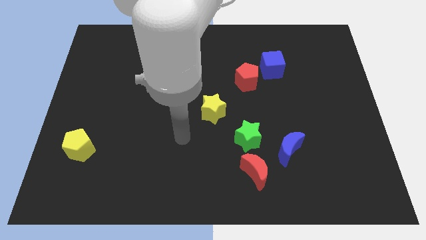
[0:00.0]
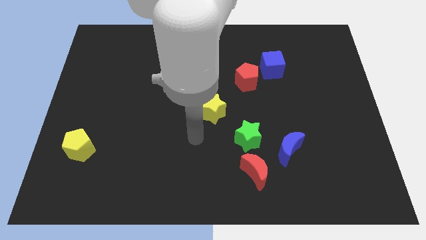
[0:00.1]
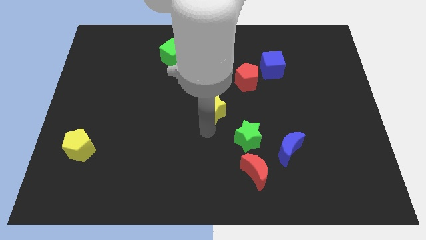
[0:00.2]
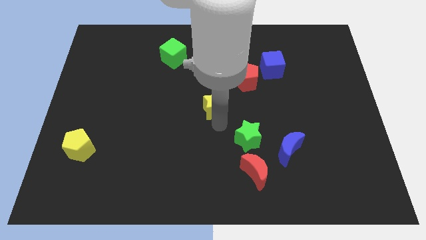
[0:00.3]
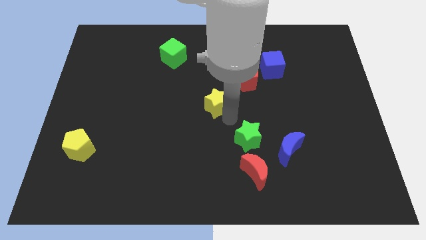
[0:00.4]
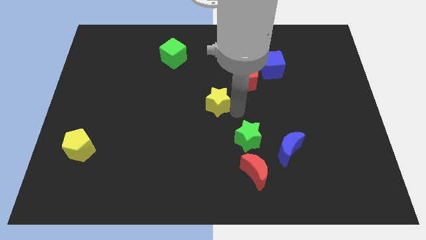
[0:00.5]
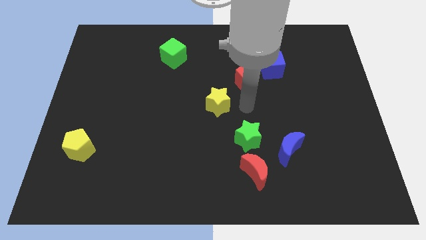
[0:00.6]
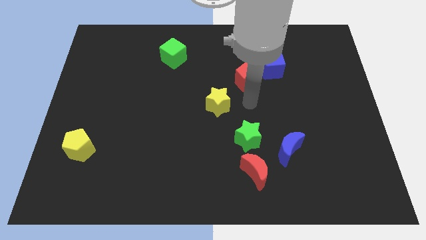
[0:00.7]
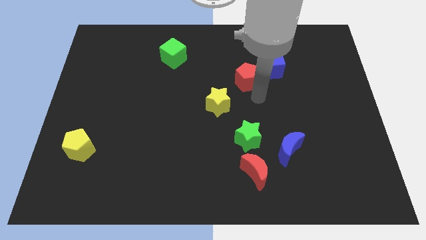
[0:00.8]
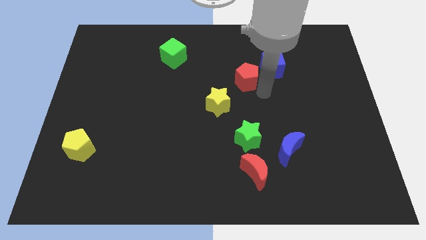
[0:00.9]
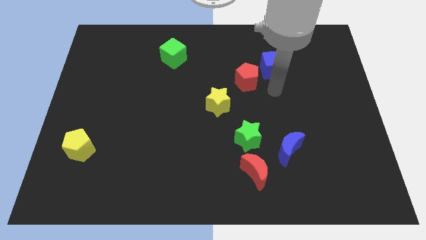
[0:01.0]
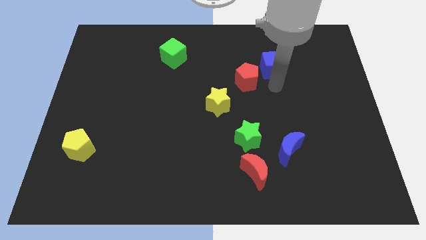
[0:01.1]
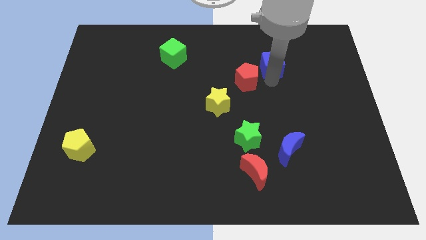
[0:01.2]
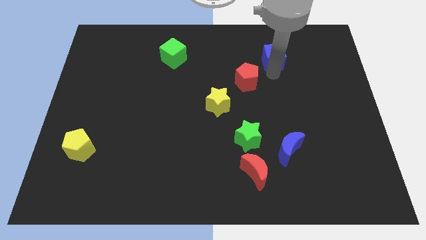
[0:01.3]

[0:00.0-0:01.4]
pull the red pentagon apart from the blue cube

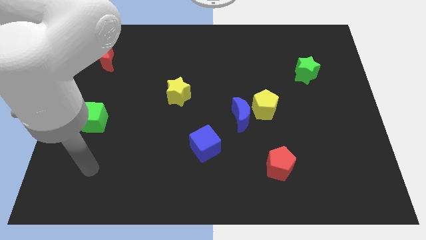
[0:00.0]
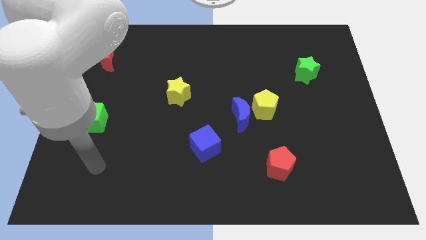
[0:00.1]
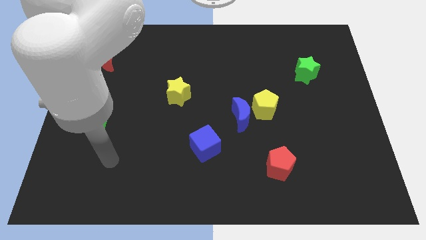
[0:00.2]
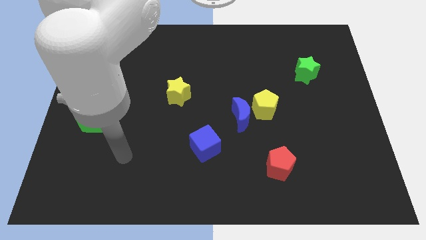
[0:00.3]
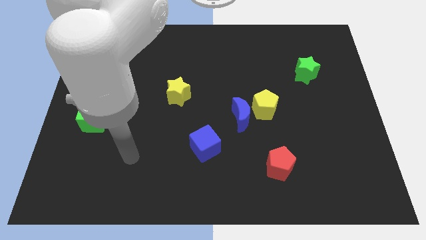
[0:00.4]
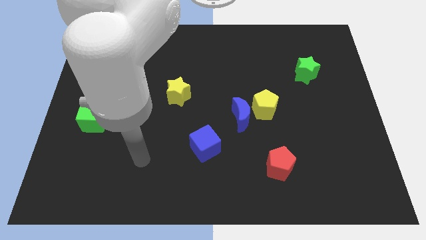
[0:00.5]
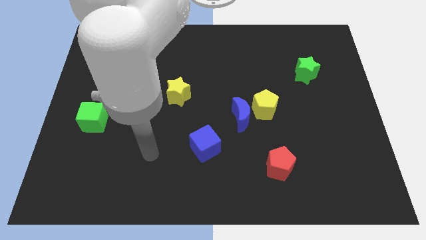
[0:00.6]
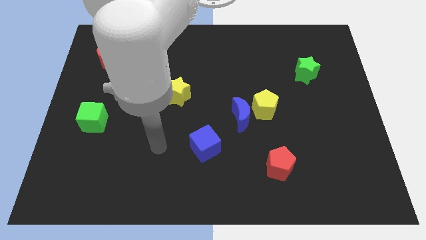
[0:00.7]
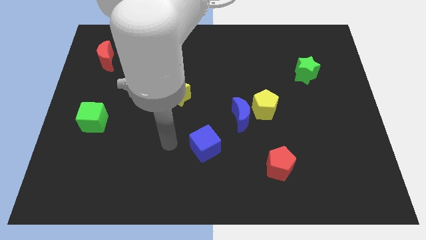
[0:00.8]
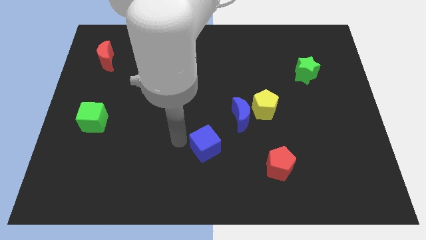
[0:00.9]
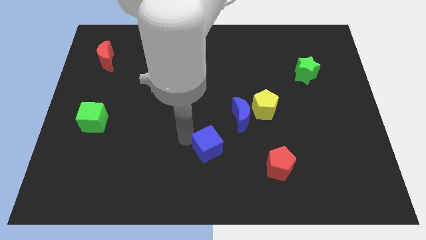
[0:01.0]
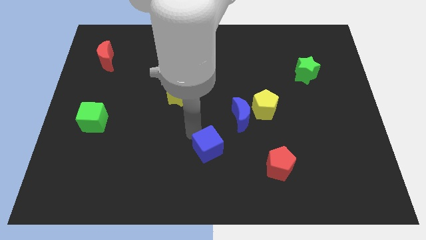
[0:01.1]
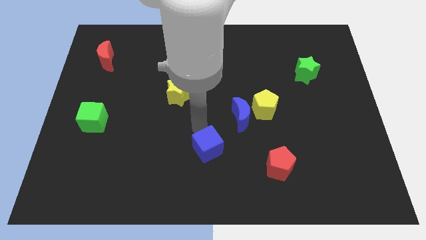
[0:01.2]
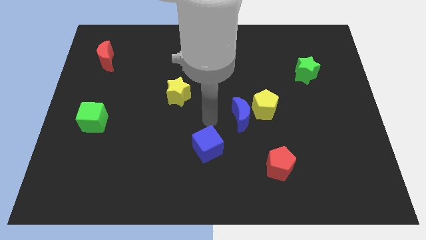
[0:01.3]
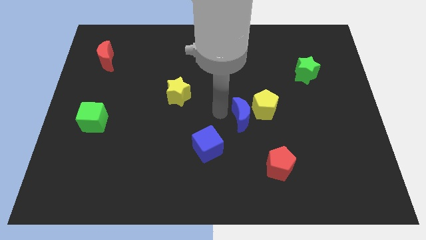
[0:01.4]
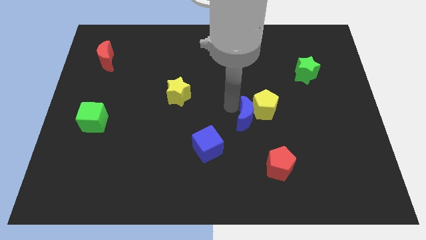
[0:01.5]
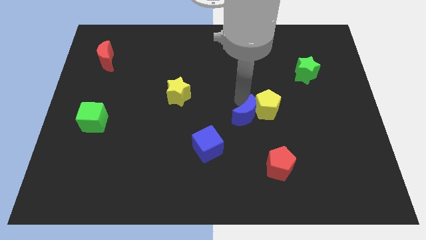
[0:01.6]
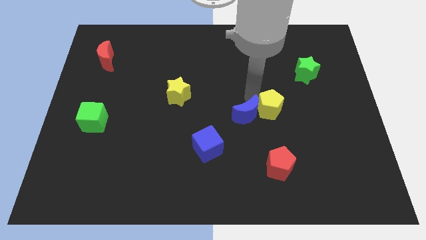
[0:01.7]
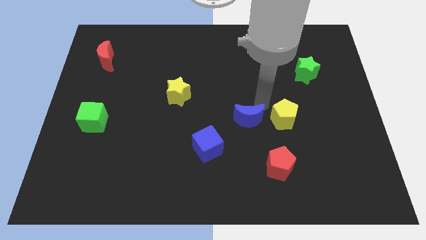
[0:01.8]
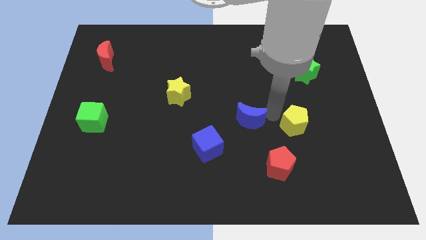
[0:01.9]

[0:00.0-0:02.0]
pull the blue moon apart from the yellow pentagon

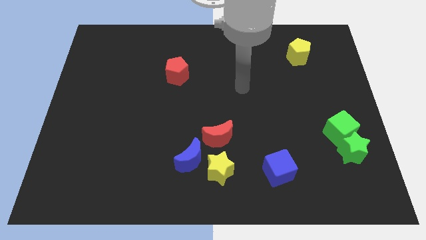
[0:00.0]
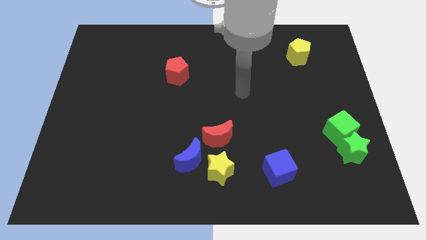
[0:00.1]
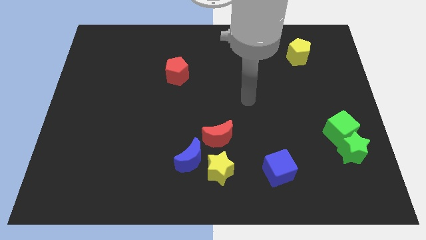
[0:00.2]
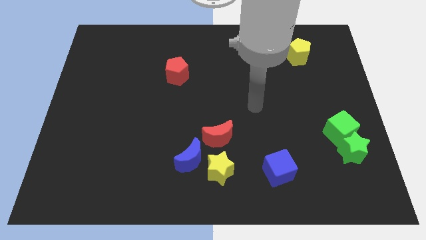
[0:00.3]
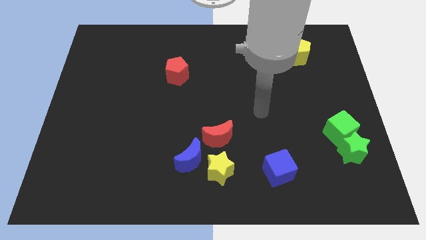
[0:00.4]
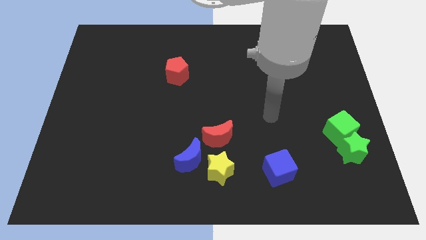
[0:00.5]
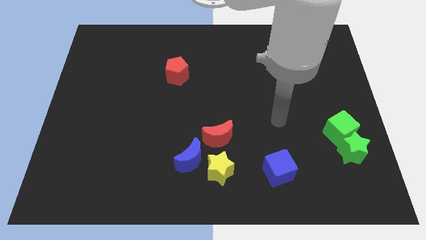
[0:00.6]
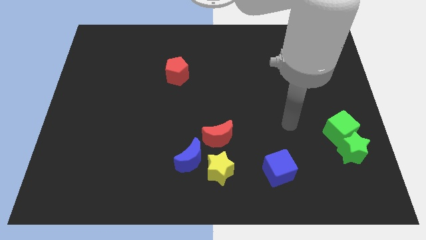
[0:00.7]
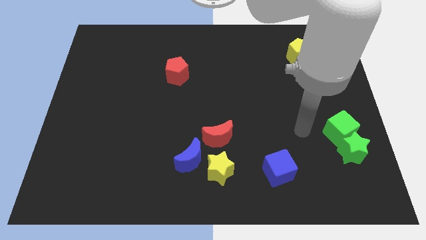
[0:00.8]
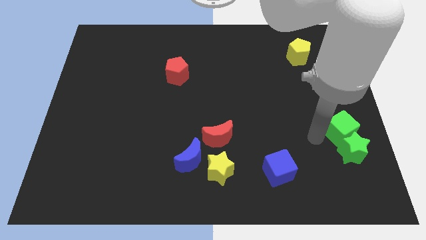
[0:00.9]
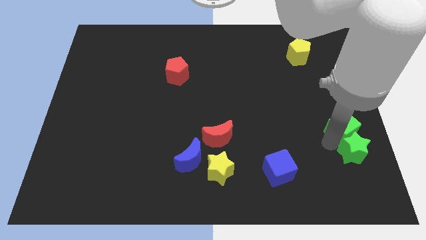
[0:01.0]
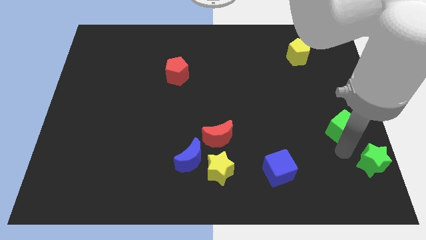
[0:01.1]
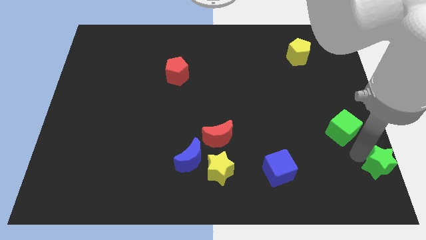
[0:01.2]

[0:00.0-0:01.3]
pull the green cube apart from the green star

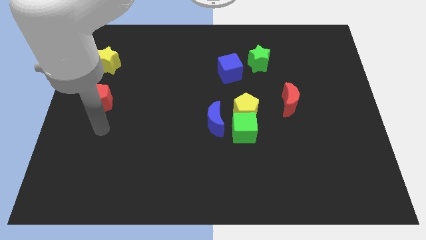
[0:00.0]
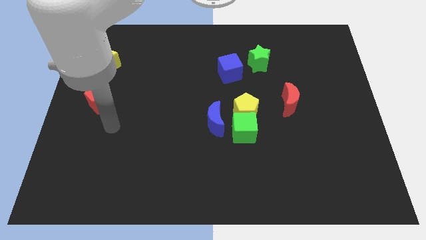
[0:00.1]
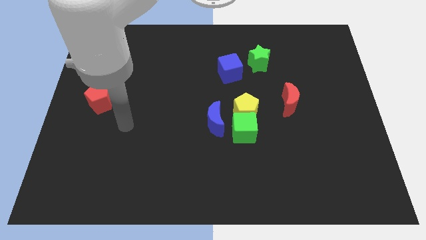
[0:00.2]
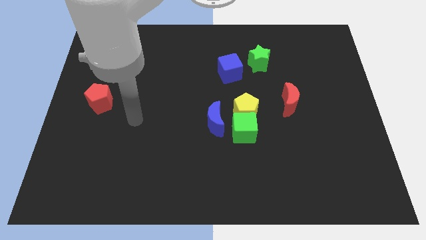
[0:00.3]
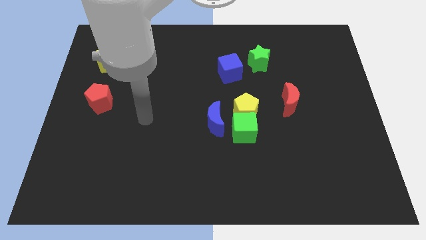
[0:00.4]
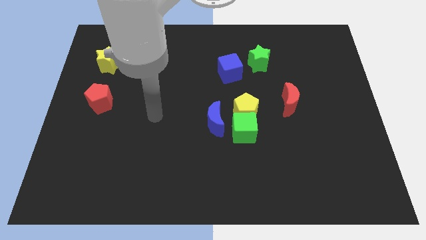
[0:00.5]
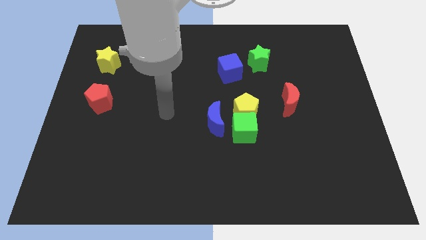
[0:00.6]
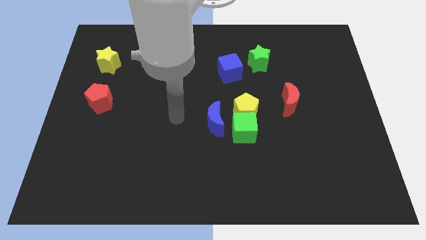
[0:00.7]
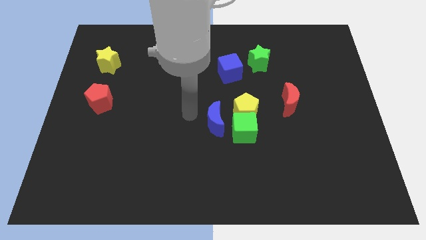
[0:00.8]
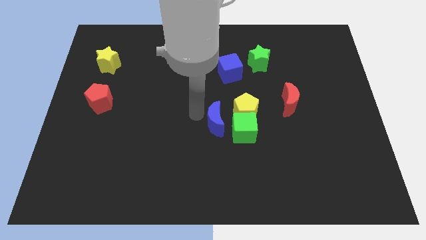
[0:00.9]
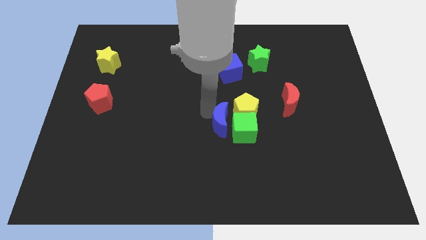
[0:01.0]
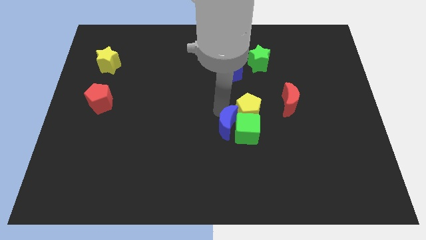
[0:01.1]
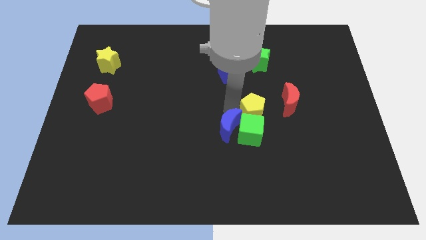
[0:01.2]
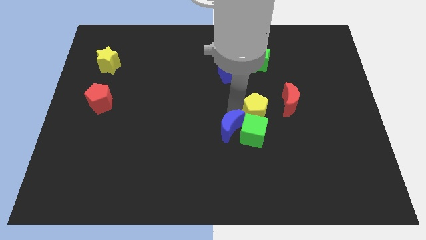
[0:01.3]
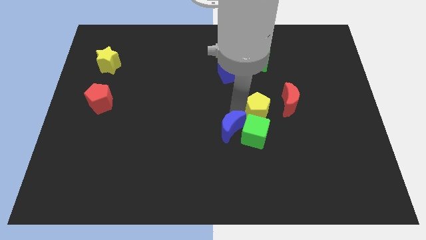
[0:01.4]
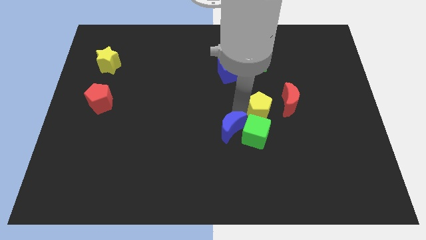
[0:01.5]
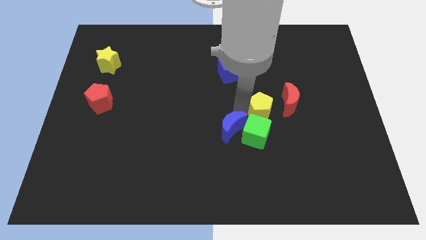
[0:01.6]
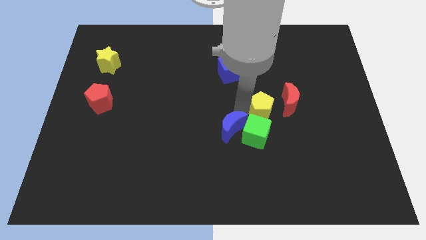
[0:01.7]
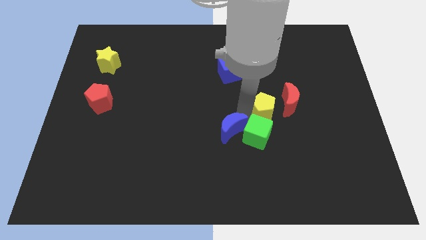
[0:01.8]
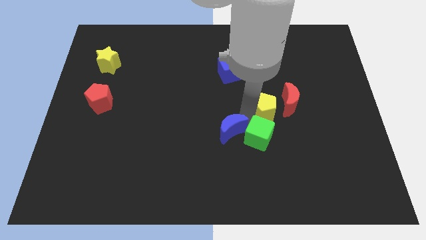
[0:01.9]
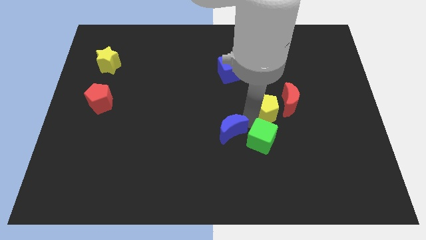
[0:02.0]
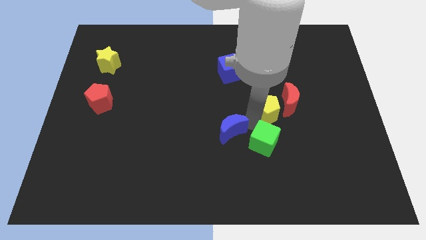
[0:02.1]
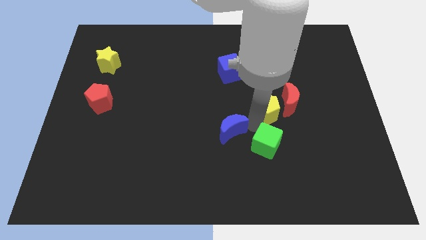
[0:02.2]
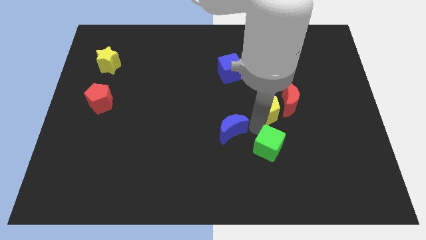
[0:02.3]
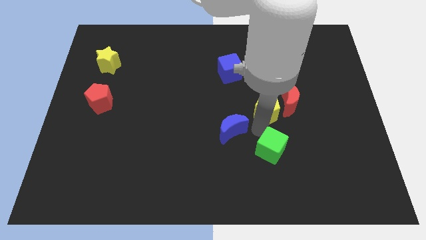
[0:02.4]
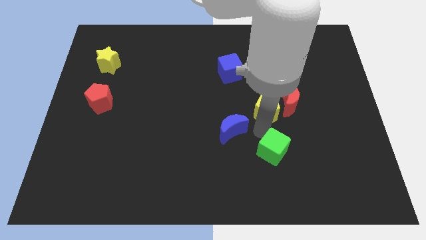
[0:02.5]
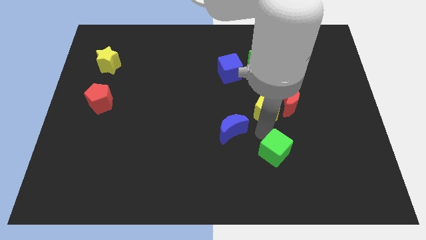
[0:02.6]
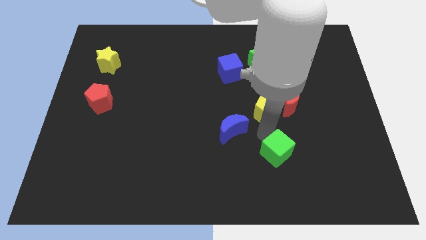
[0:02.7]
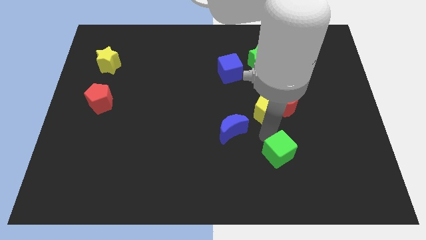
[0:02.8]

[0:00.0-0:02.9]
separate the green cube from the yellow pentagon and blue moon

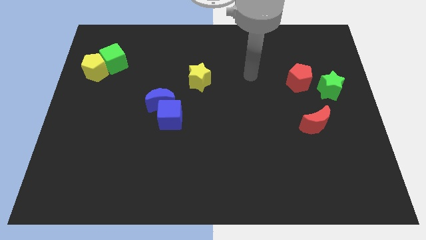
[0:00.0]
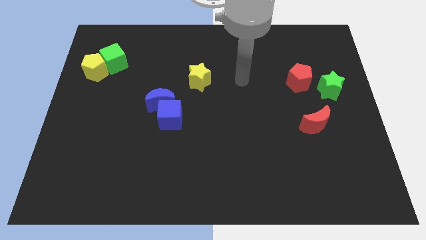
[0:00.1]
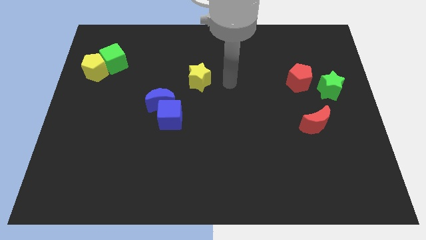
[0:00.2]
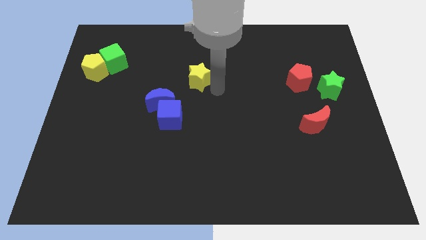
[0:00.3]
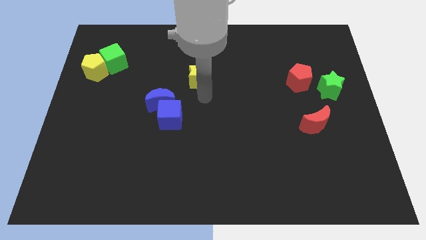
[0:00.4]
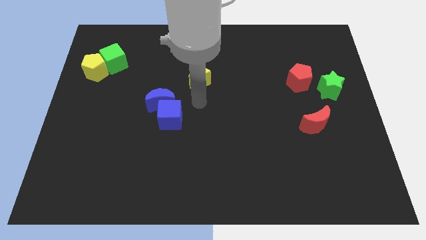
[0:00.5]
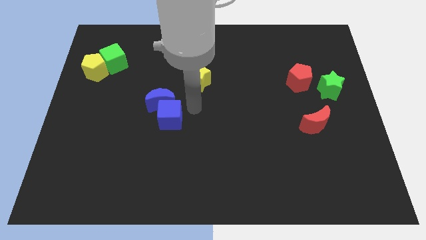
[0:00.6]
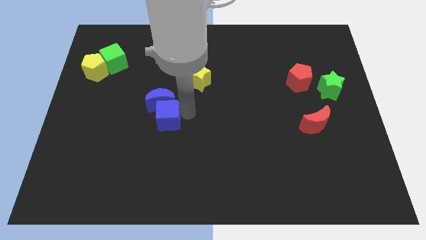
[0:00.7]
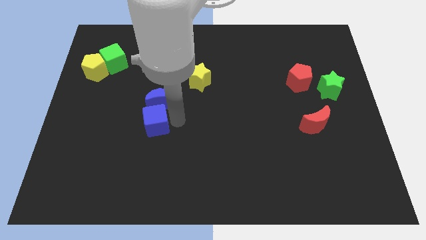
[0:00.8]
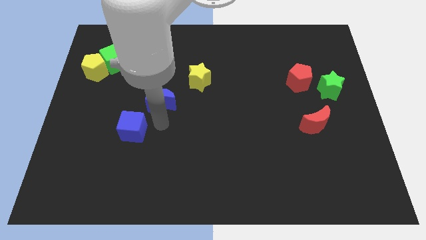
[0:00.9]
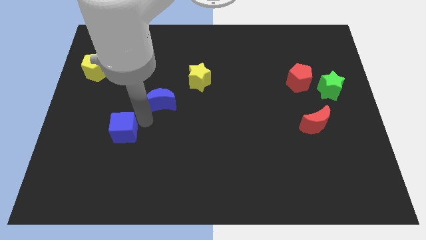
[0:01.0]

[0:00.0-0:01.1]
pull the blue moon apart from the blue cube

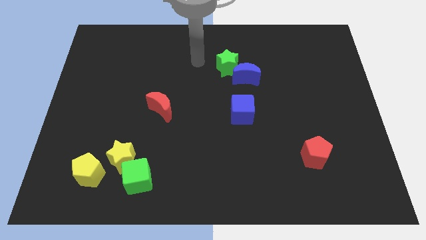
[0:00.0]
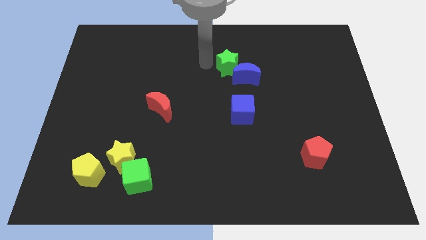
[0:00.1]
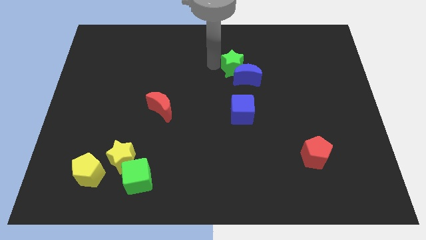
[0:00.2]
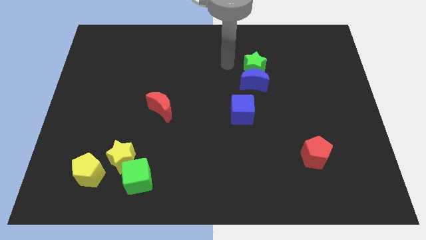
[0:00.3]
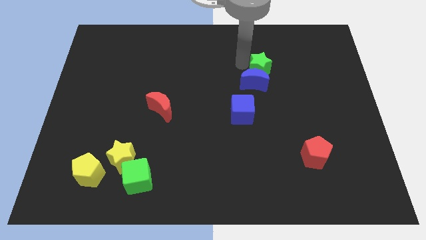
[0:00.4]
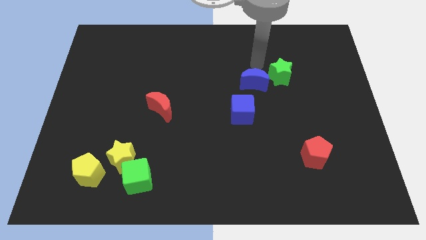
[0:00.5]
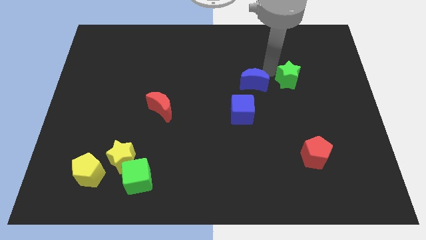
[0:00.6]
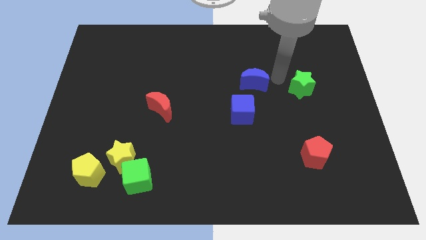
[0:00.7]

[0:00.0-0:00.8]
separate the blue moon from the green star
